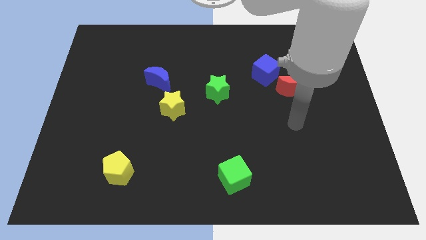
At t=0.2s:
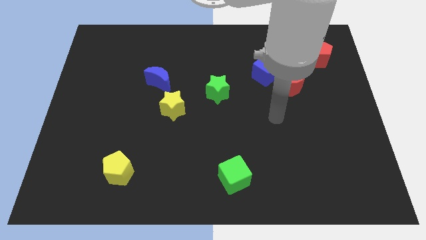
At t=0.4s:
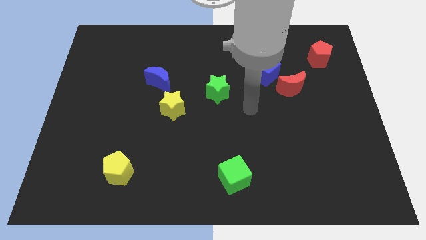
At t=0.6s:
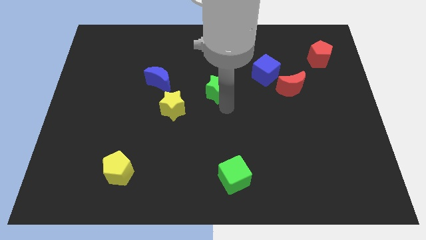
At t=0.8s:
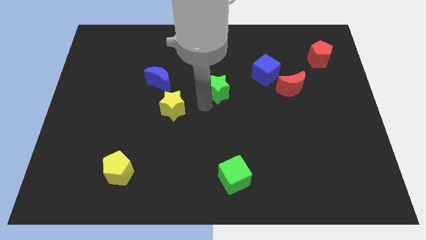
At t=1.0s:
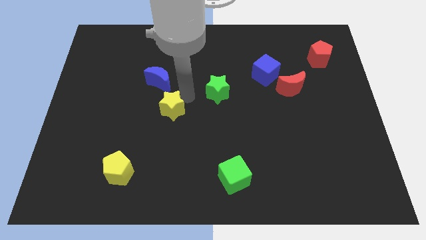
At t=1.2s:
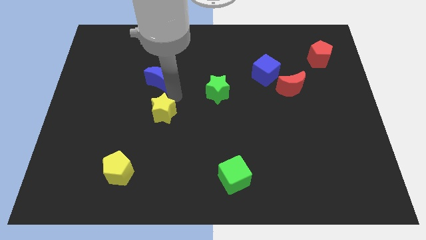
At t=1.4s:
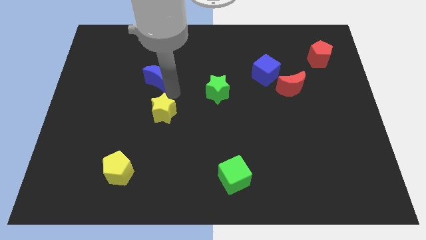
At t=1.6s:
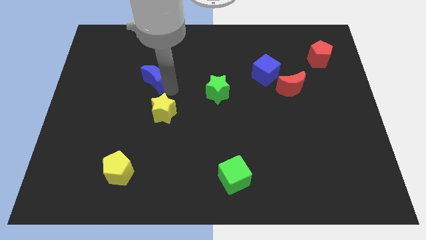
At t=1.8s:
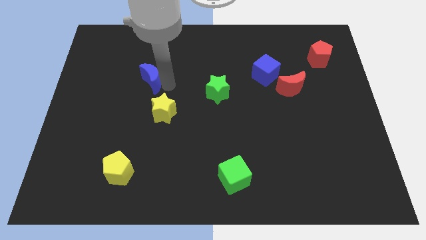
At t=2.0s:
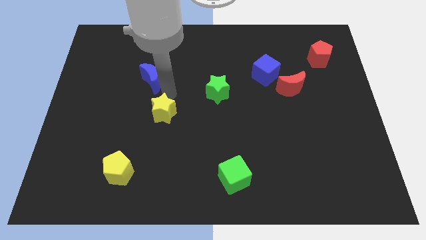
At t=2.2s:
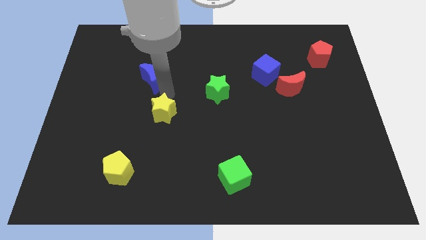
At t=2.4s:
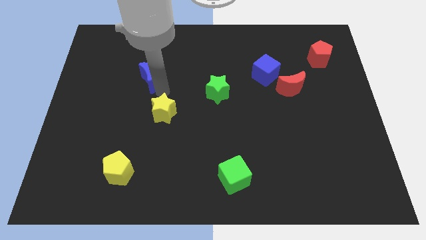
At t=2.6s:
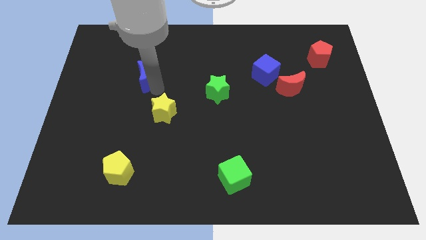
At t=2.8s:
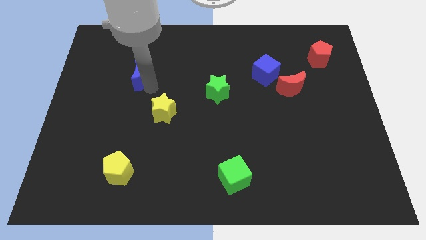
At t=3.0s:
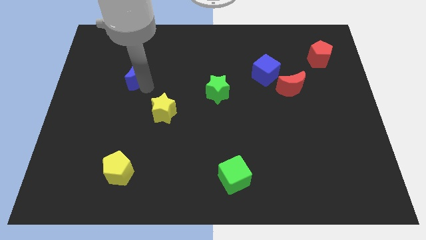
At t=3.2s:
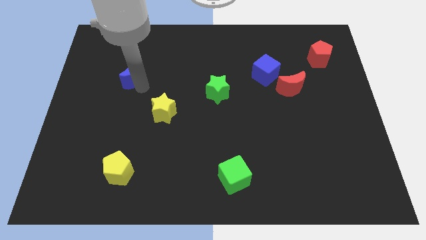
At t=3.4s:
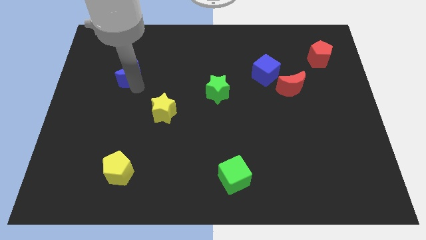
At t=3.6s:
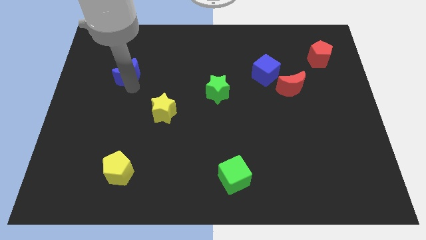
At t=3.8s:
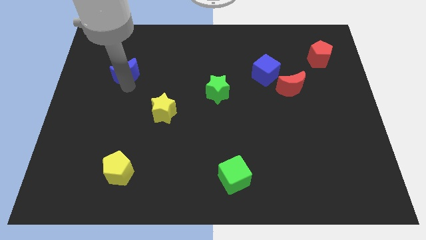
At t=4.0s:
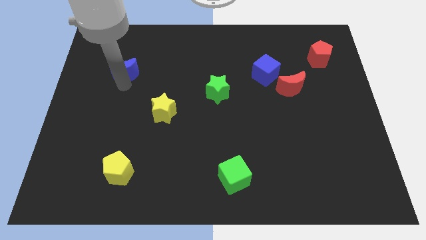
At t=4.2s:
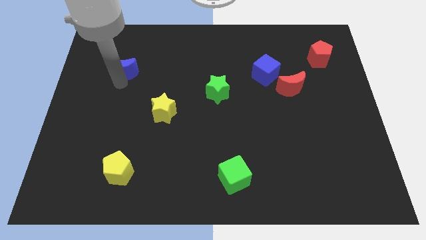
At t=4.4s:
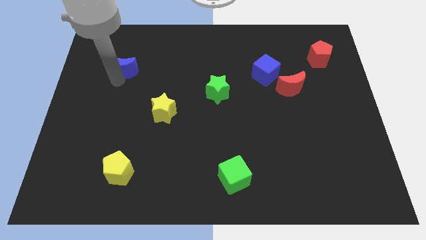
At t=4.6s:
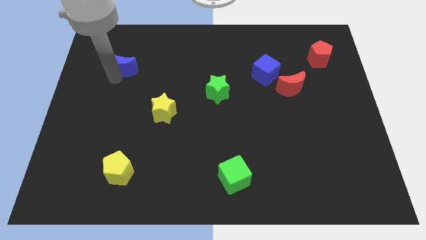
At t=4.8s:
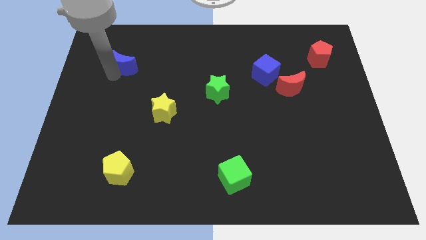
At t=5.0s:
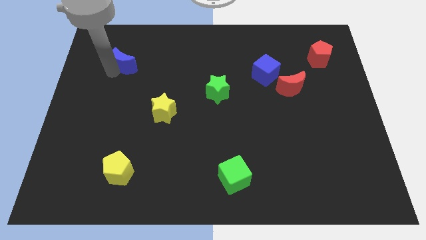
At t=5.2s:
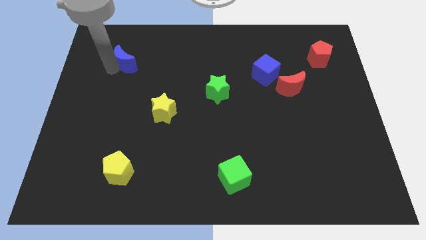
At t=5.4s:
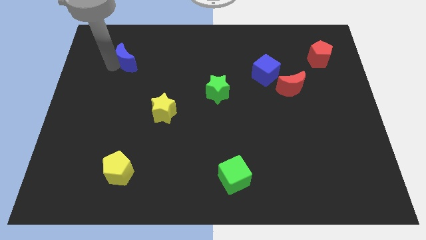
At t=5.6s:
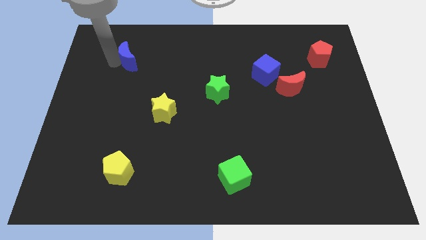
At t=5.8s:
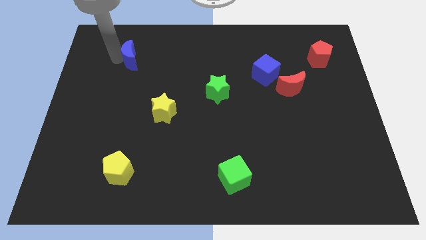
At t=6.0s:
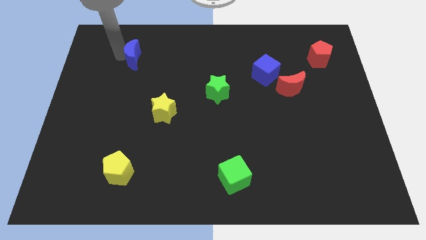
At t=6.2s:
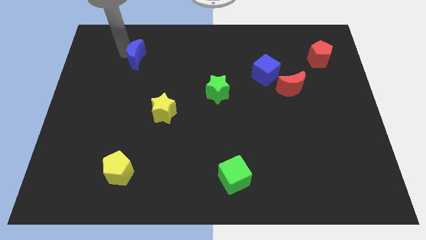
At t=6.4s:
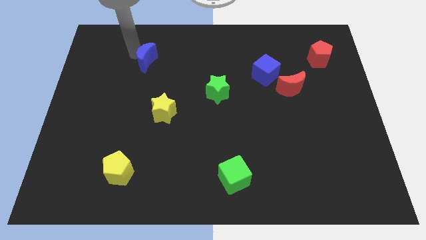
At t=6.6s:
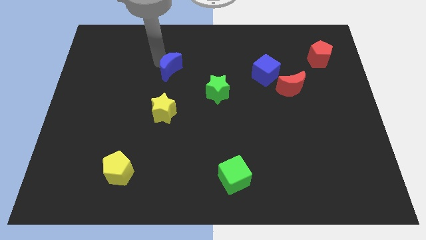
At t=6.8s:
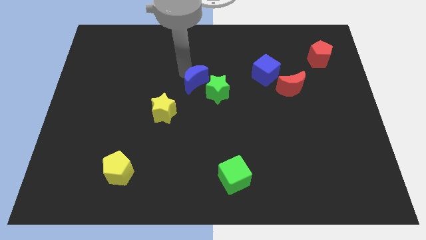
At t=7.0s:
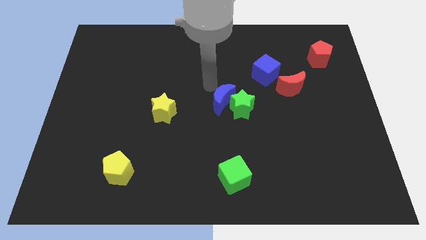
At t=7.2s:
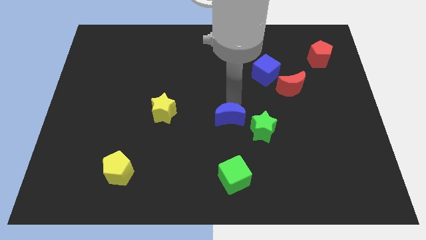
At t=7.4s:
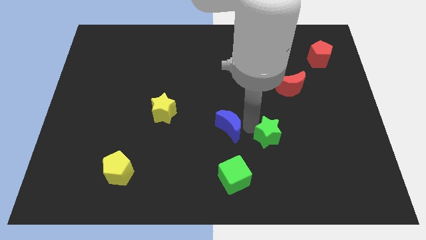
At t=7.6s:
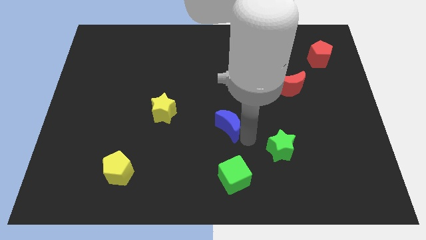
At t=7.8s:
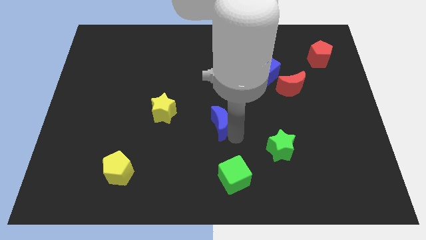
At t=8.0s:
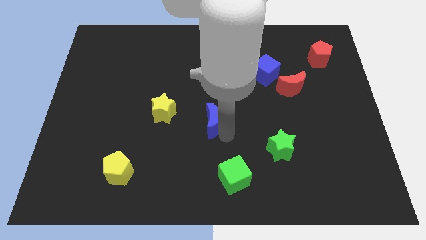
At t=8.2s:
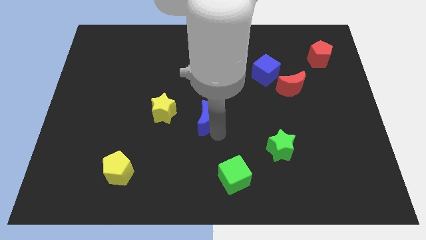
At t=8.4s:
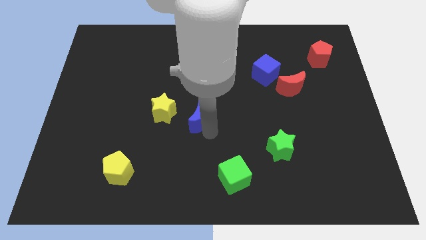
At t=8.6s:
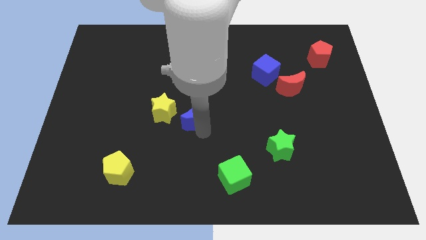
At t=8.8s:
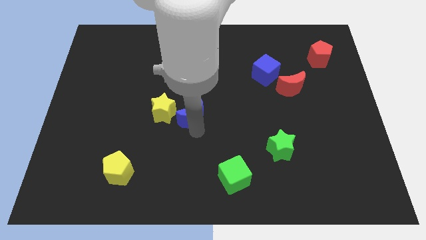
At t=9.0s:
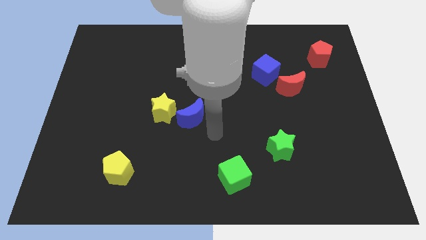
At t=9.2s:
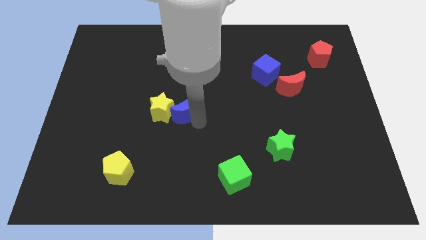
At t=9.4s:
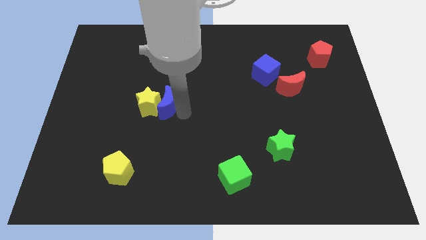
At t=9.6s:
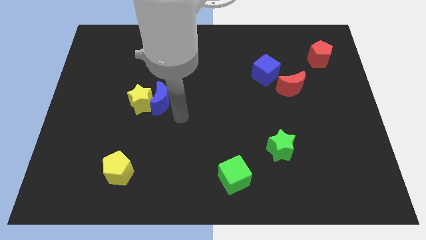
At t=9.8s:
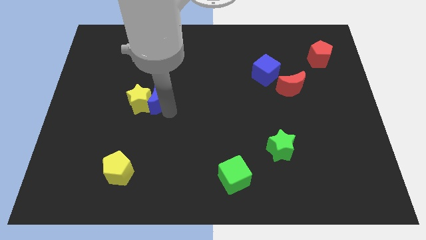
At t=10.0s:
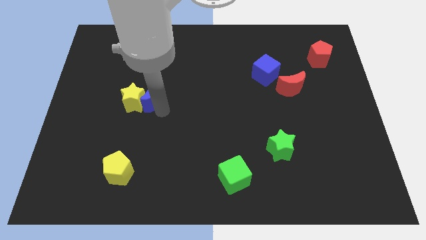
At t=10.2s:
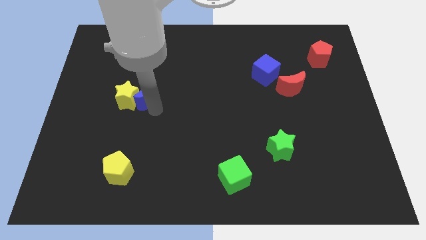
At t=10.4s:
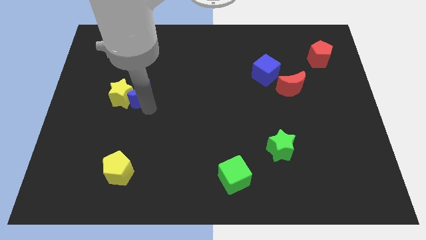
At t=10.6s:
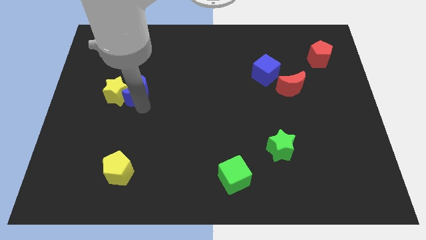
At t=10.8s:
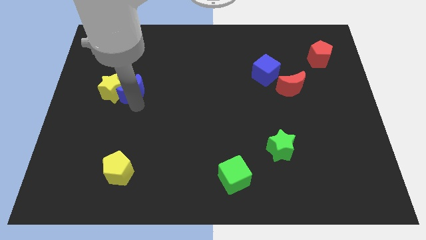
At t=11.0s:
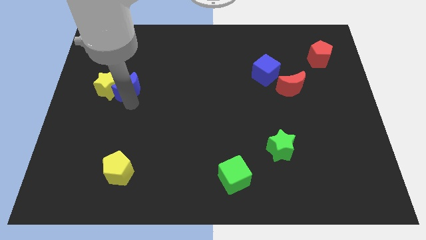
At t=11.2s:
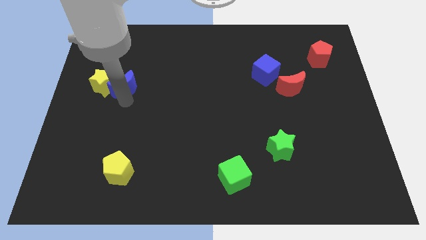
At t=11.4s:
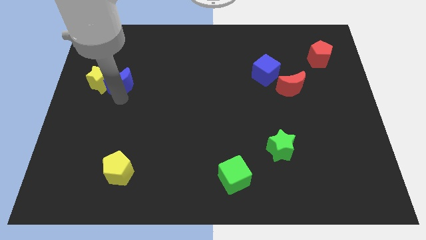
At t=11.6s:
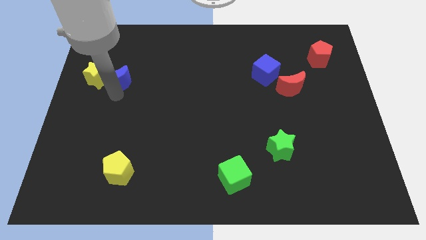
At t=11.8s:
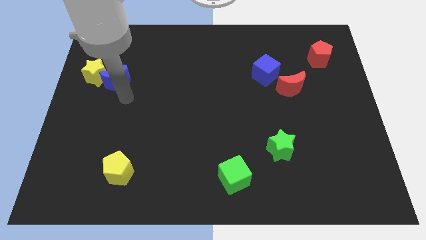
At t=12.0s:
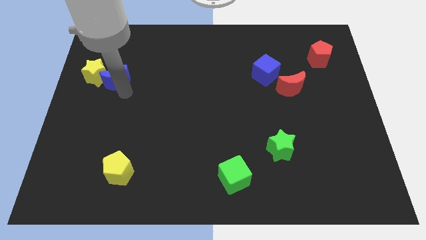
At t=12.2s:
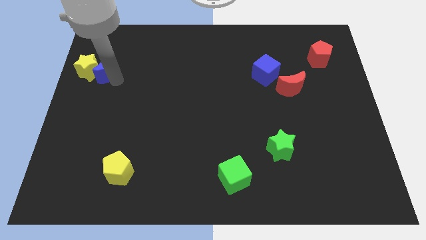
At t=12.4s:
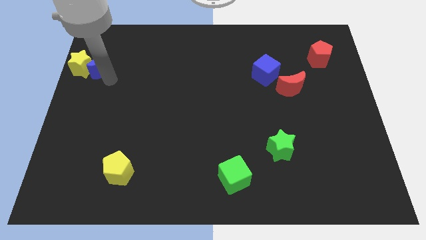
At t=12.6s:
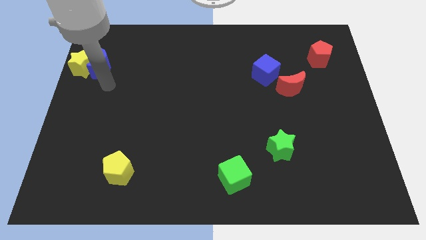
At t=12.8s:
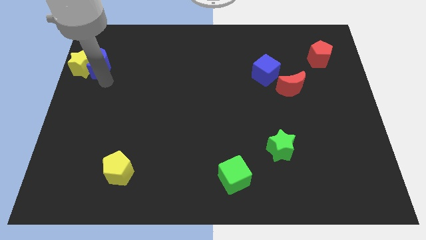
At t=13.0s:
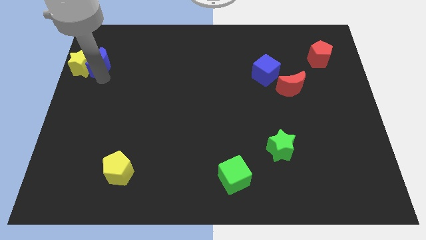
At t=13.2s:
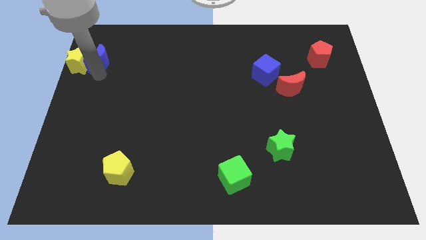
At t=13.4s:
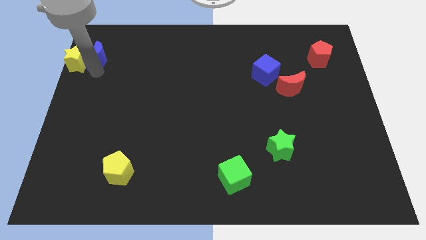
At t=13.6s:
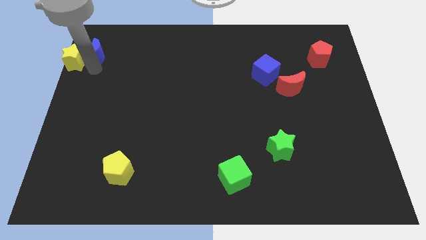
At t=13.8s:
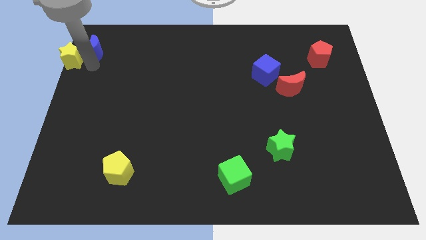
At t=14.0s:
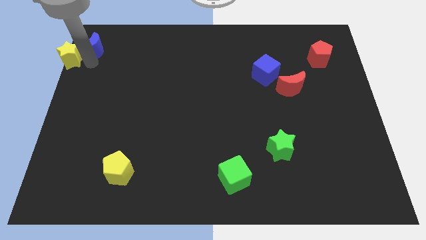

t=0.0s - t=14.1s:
slide the blue moon to the top left
